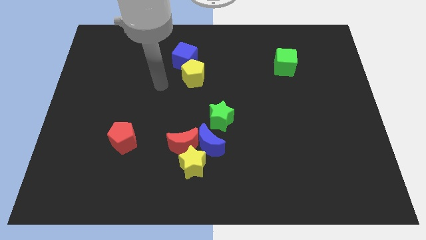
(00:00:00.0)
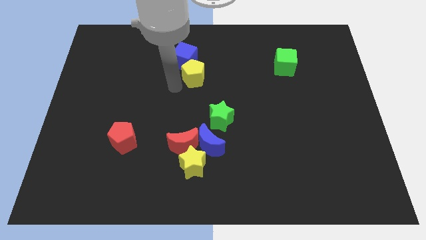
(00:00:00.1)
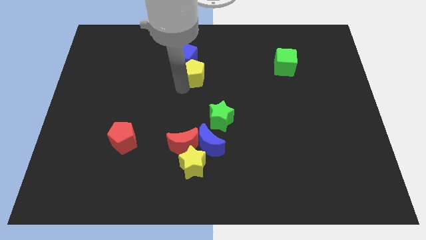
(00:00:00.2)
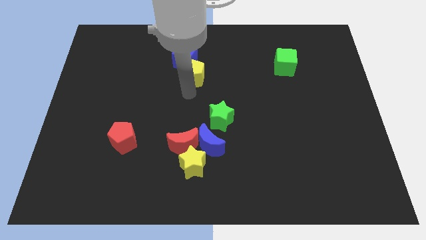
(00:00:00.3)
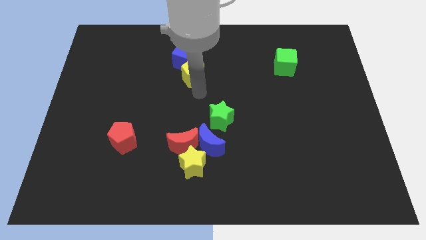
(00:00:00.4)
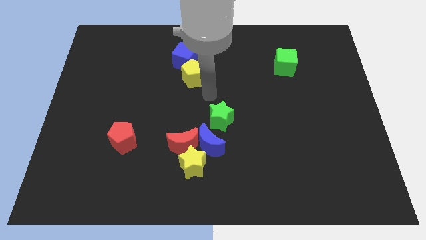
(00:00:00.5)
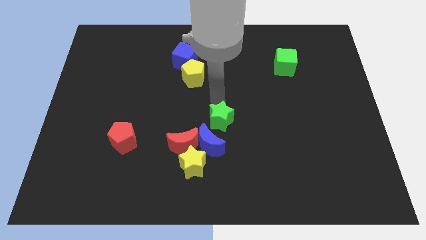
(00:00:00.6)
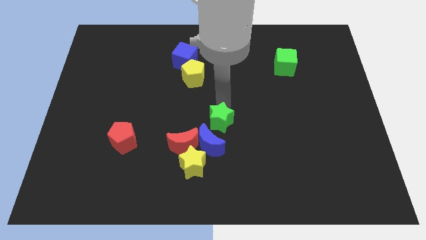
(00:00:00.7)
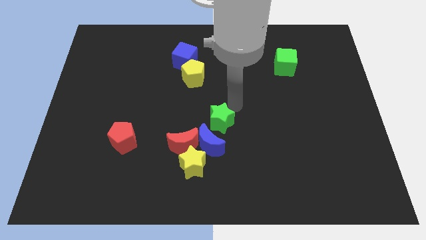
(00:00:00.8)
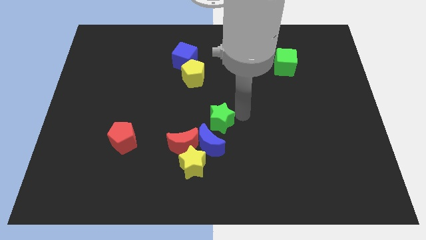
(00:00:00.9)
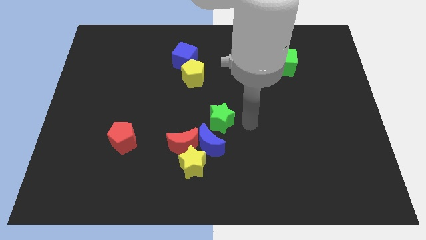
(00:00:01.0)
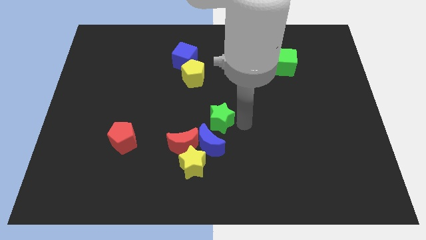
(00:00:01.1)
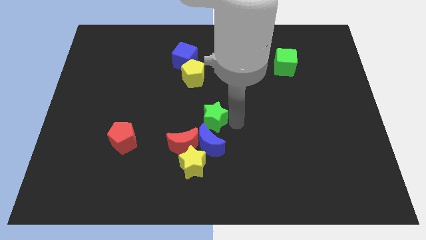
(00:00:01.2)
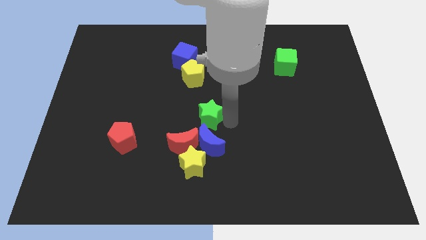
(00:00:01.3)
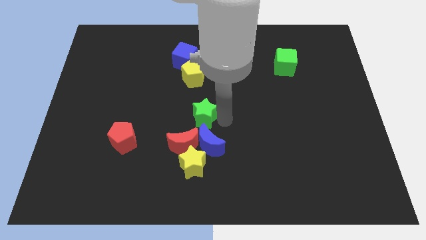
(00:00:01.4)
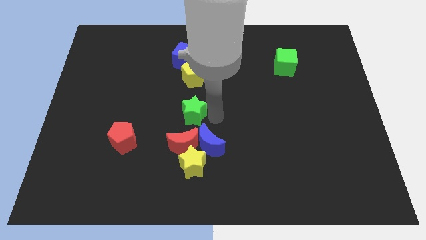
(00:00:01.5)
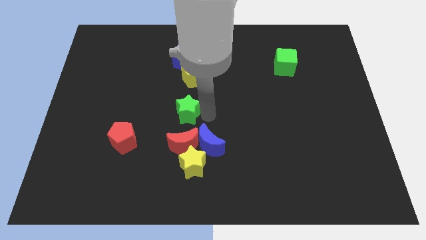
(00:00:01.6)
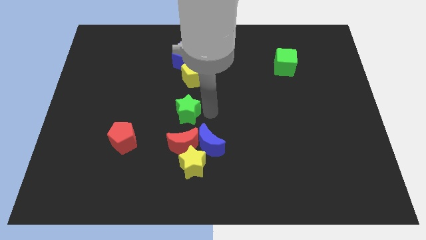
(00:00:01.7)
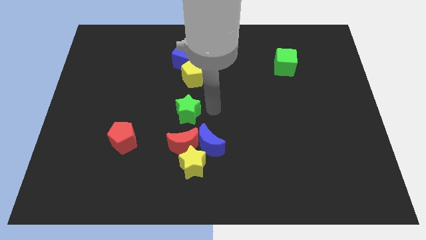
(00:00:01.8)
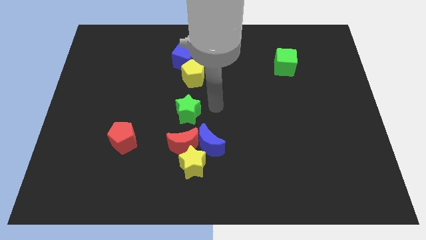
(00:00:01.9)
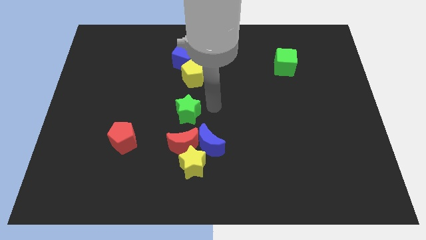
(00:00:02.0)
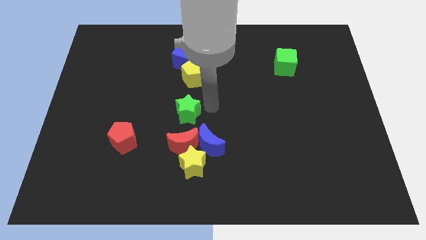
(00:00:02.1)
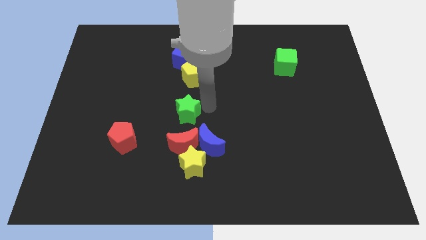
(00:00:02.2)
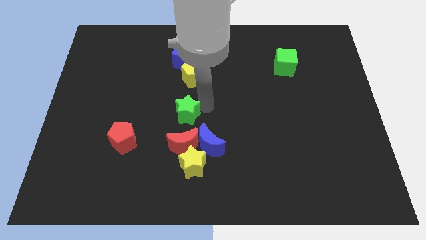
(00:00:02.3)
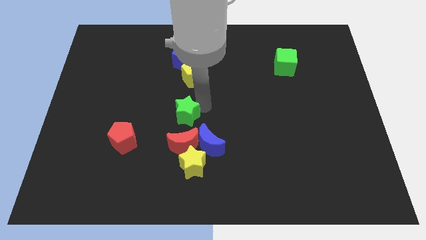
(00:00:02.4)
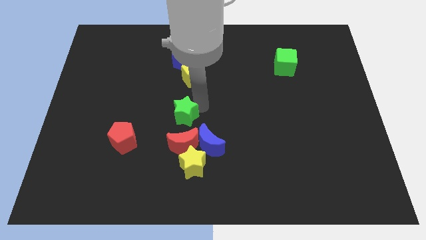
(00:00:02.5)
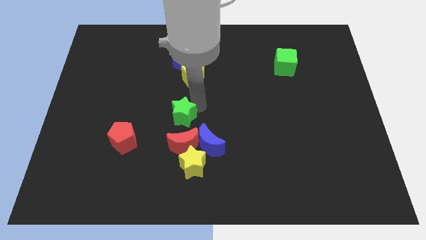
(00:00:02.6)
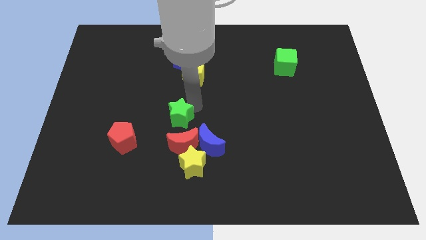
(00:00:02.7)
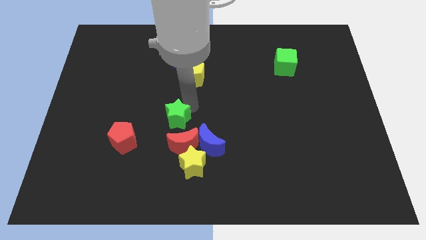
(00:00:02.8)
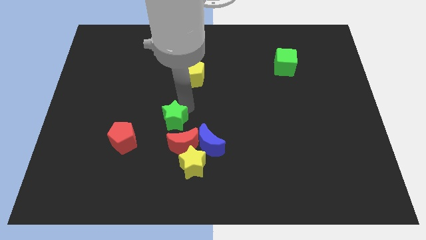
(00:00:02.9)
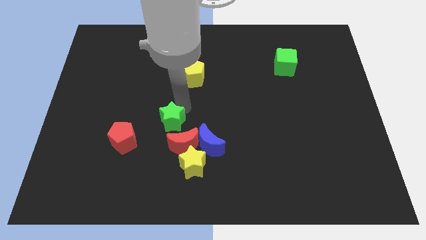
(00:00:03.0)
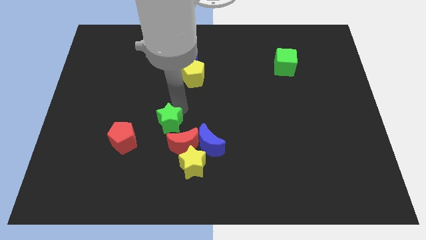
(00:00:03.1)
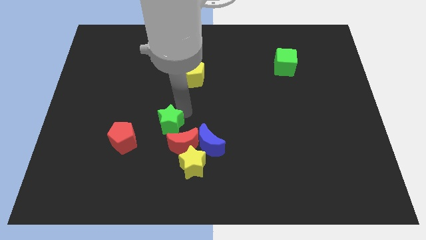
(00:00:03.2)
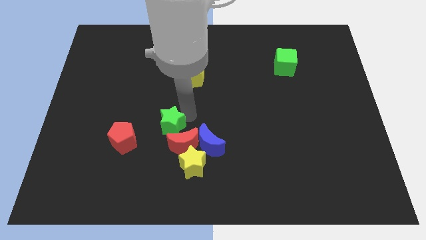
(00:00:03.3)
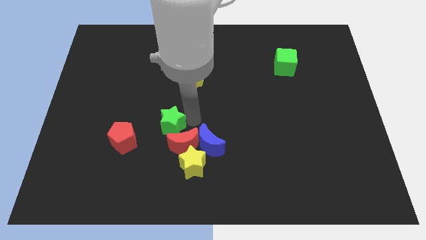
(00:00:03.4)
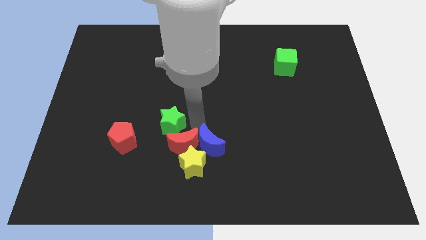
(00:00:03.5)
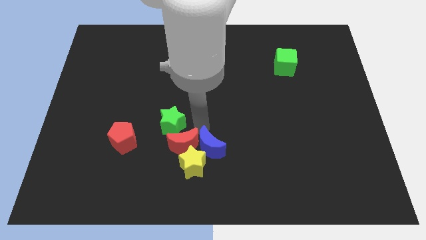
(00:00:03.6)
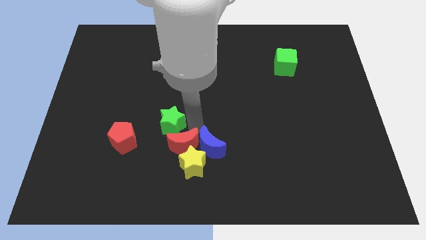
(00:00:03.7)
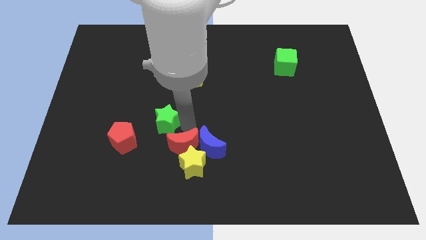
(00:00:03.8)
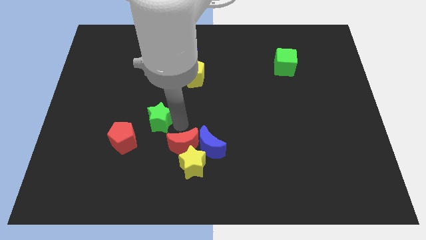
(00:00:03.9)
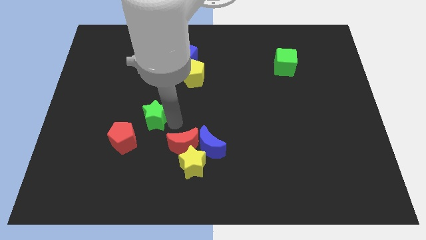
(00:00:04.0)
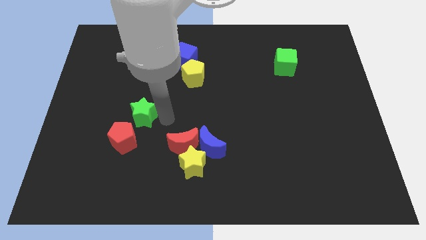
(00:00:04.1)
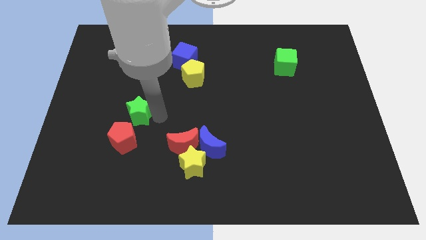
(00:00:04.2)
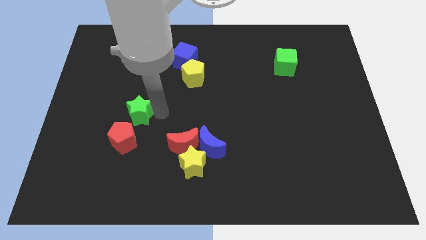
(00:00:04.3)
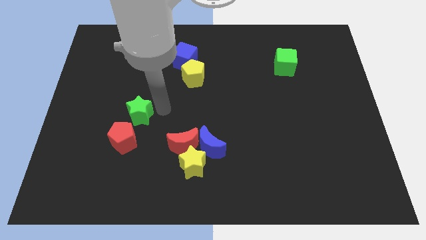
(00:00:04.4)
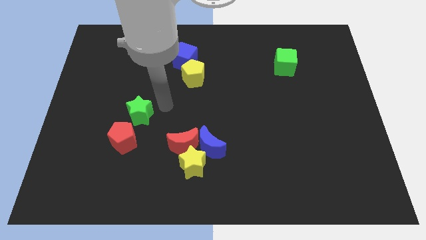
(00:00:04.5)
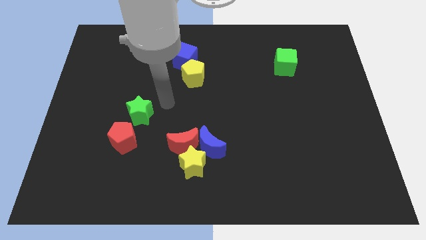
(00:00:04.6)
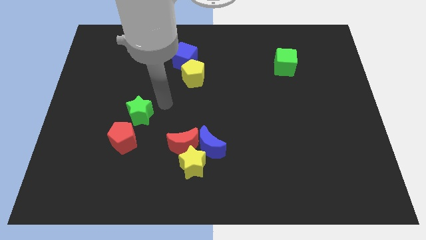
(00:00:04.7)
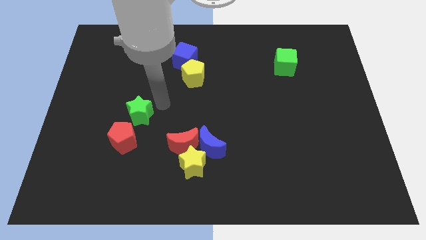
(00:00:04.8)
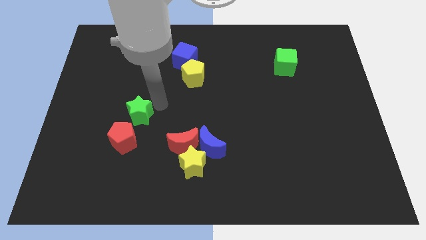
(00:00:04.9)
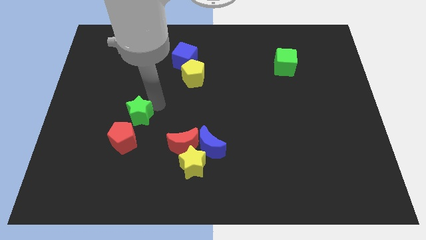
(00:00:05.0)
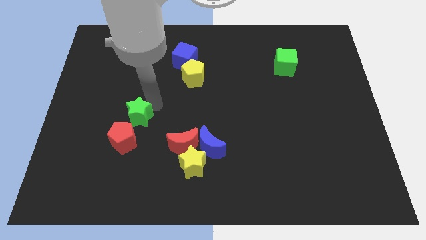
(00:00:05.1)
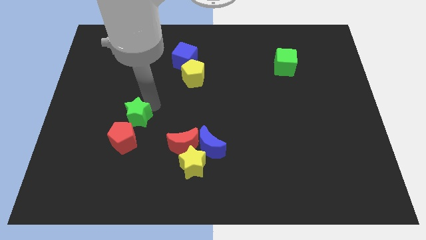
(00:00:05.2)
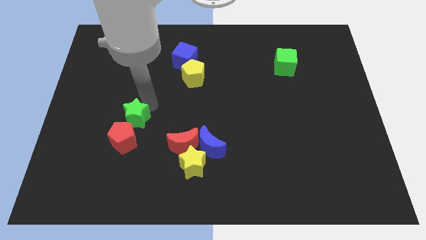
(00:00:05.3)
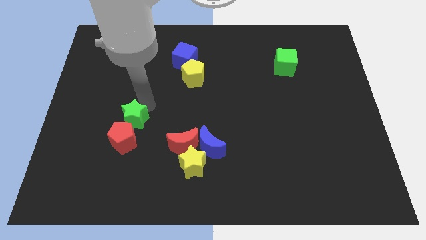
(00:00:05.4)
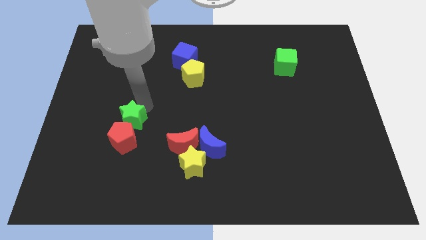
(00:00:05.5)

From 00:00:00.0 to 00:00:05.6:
slide the green star to the top left side of the red pentagon

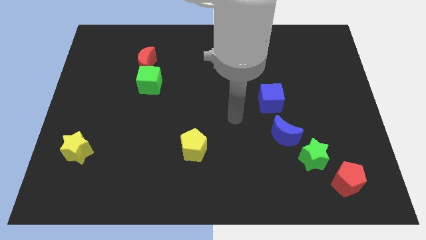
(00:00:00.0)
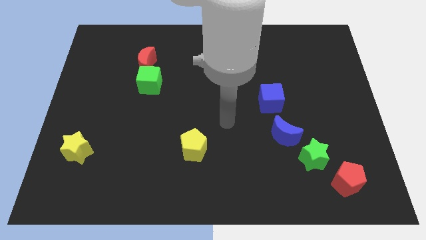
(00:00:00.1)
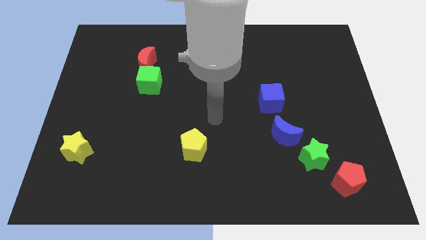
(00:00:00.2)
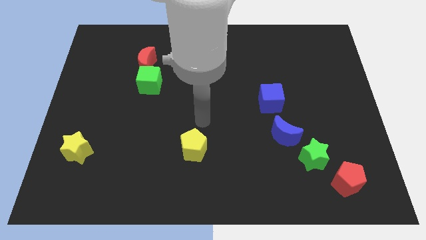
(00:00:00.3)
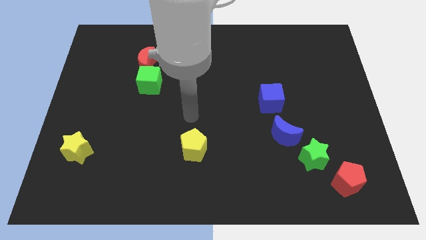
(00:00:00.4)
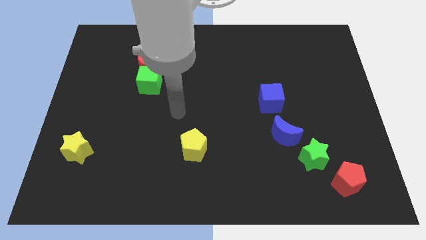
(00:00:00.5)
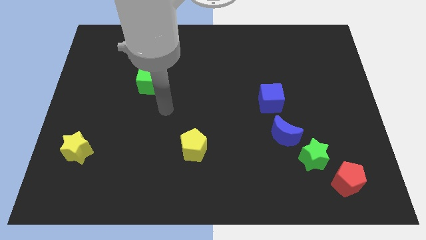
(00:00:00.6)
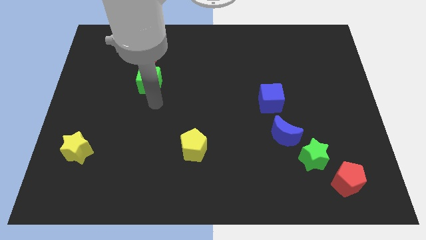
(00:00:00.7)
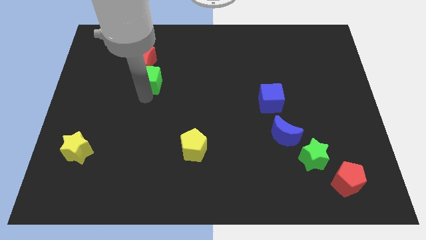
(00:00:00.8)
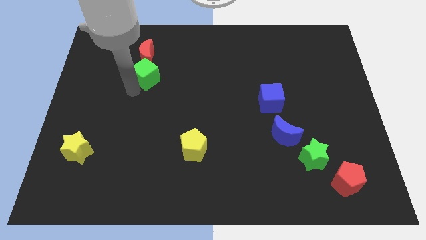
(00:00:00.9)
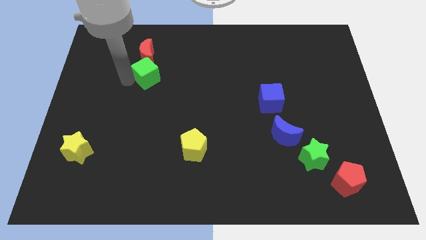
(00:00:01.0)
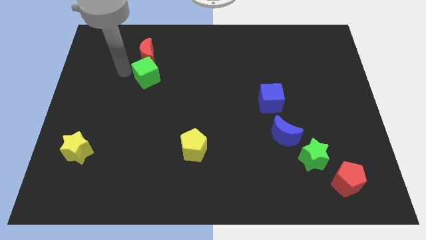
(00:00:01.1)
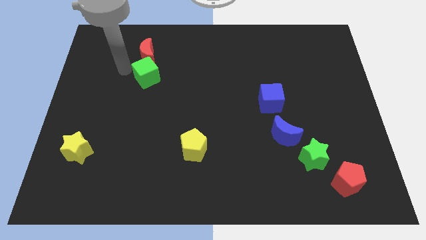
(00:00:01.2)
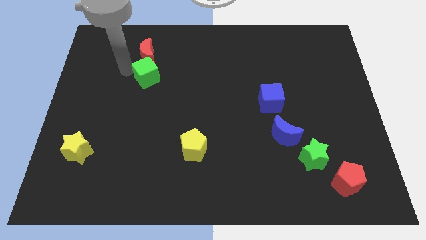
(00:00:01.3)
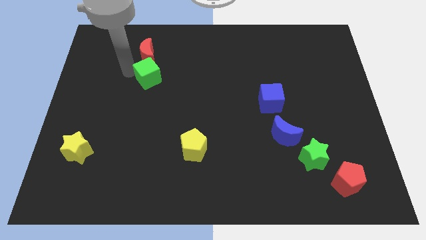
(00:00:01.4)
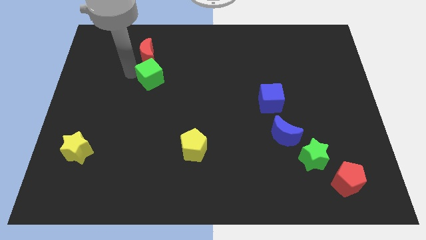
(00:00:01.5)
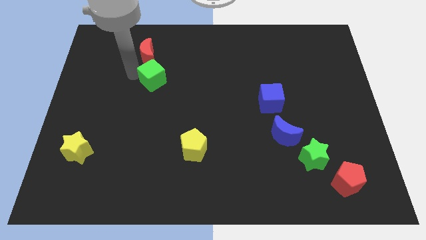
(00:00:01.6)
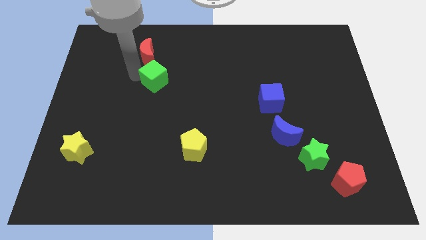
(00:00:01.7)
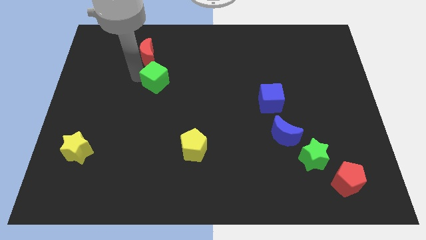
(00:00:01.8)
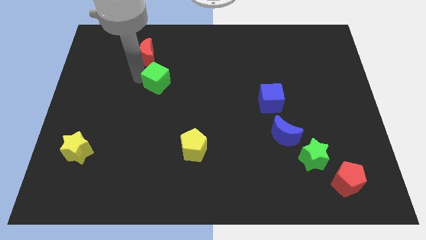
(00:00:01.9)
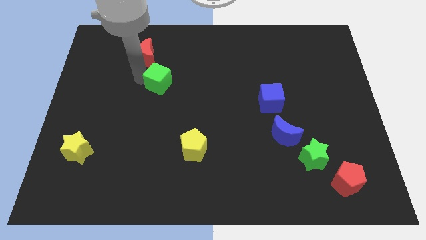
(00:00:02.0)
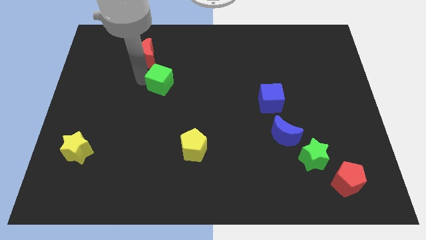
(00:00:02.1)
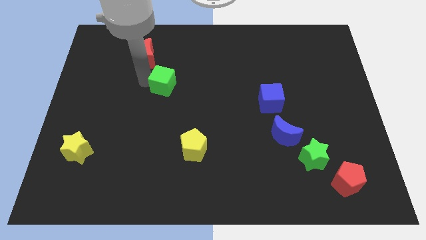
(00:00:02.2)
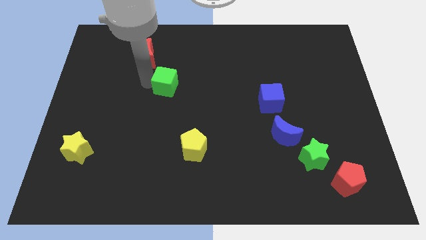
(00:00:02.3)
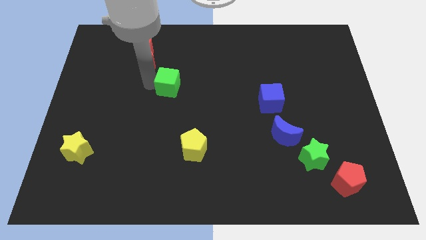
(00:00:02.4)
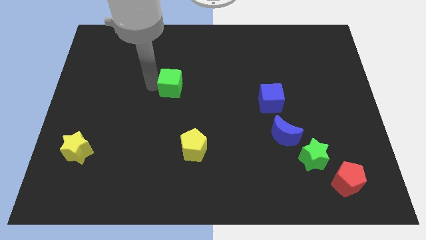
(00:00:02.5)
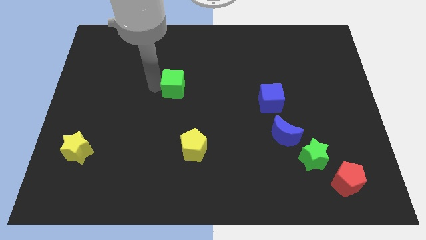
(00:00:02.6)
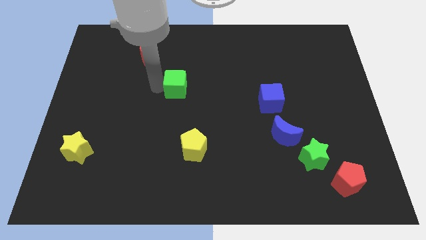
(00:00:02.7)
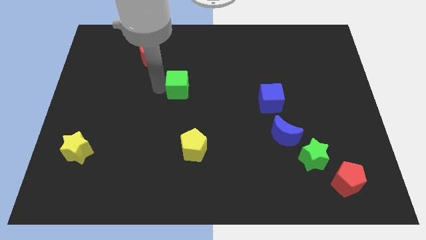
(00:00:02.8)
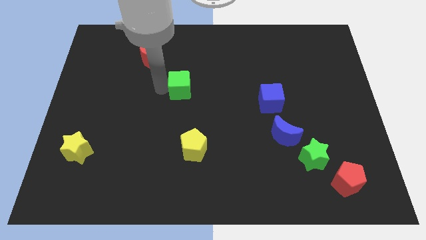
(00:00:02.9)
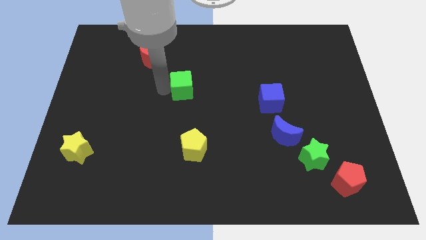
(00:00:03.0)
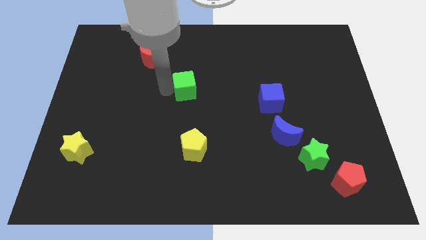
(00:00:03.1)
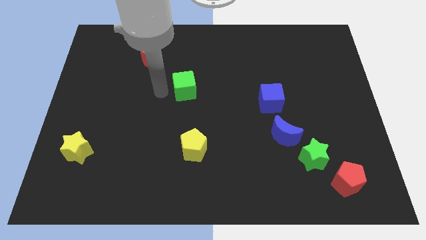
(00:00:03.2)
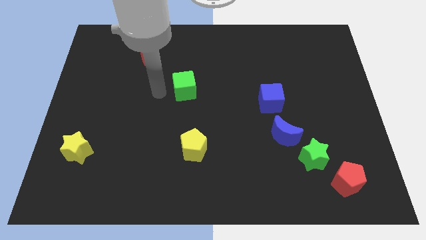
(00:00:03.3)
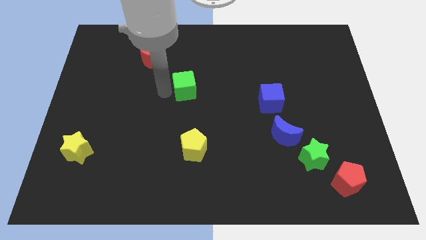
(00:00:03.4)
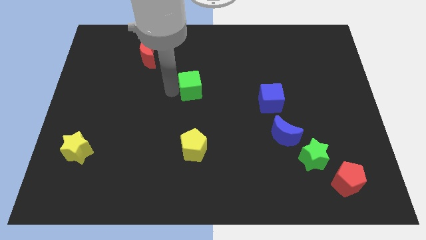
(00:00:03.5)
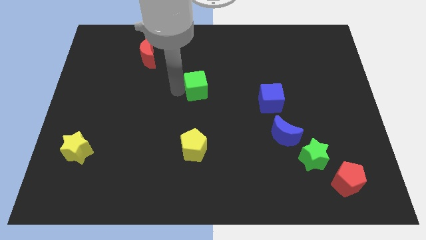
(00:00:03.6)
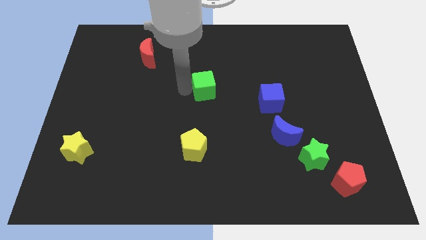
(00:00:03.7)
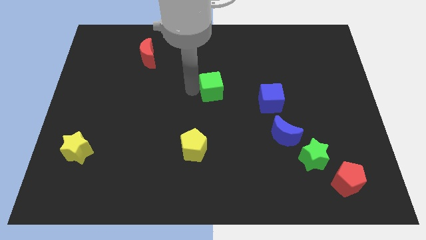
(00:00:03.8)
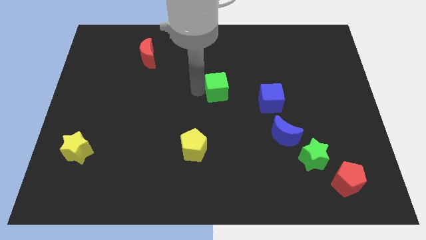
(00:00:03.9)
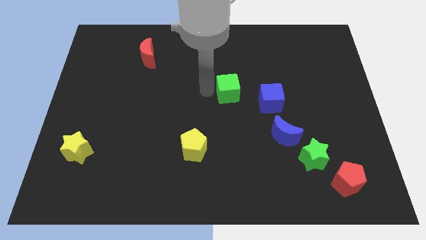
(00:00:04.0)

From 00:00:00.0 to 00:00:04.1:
slide the green cube to the top left side of the blue cube
